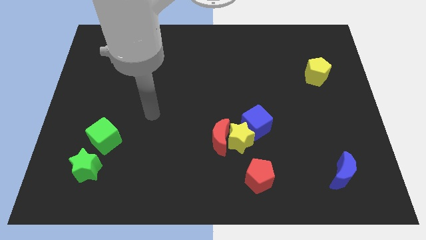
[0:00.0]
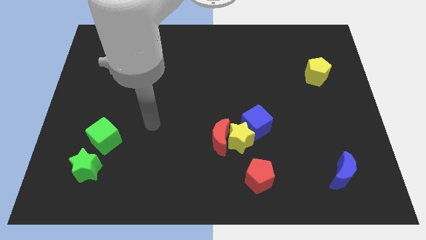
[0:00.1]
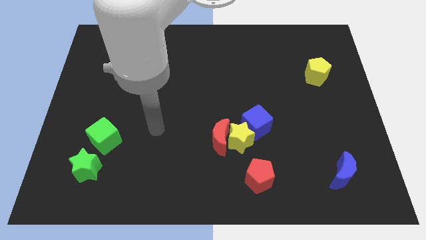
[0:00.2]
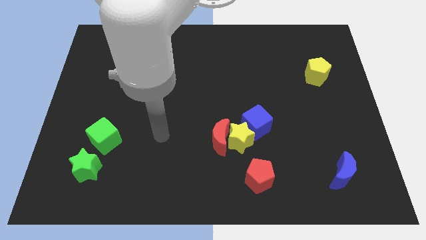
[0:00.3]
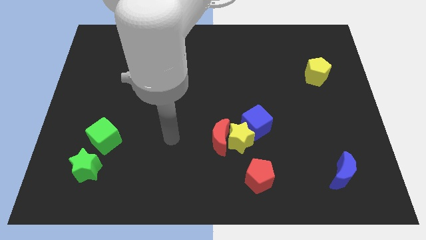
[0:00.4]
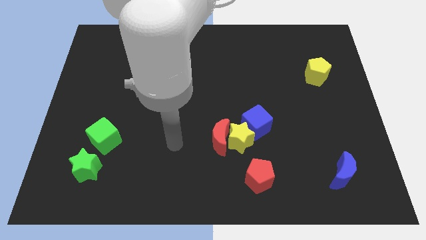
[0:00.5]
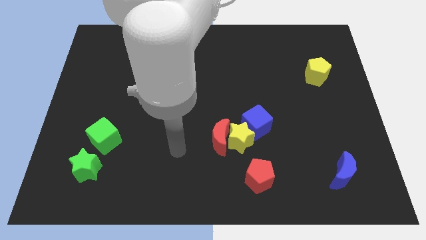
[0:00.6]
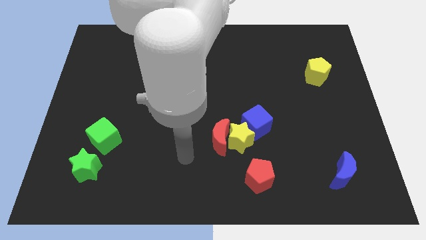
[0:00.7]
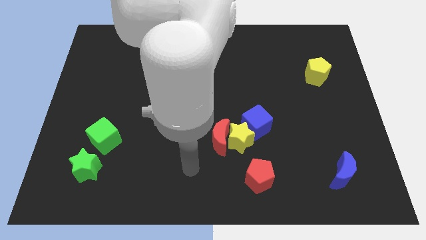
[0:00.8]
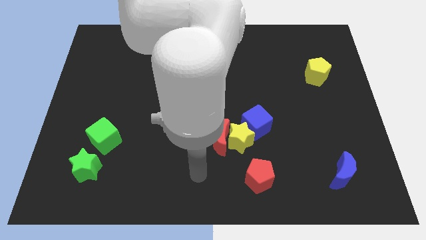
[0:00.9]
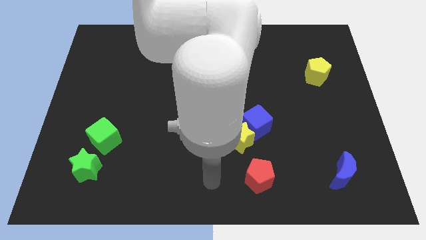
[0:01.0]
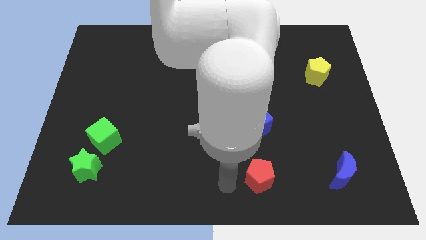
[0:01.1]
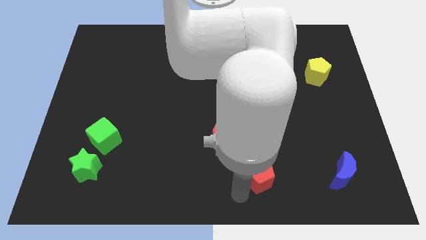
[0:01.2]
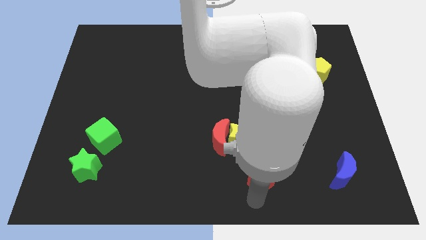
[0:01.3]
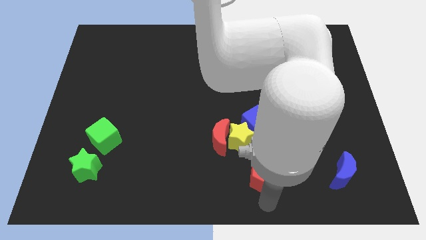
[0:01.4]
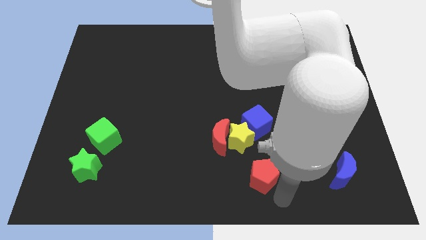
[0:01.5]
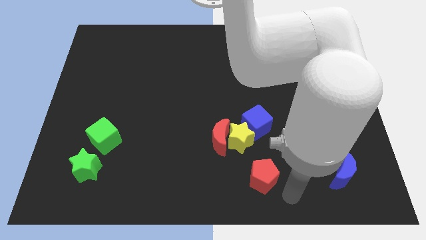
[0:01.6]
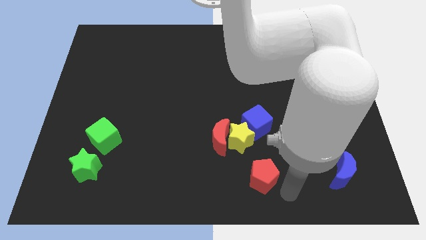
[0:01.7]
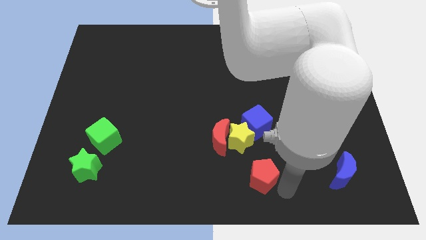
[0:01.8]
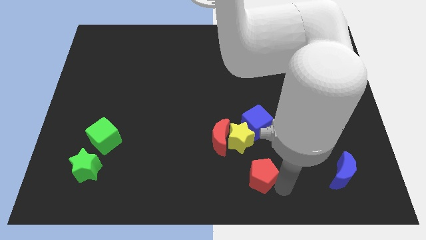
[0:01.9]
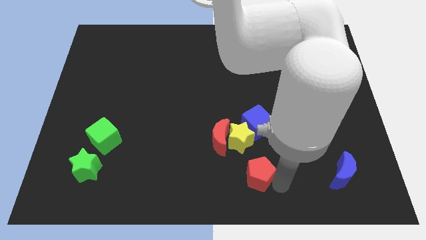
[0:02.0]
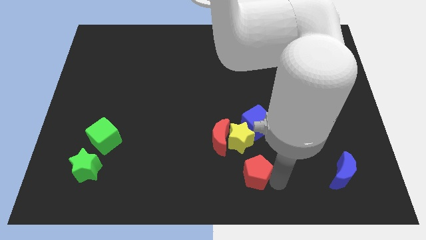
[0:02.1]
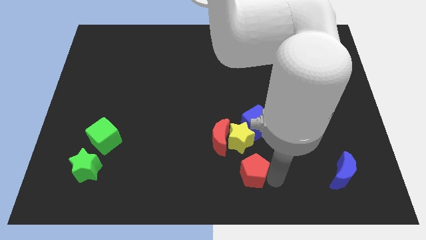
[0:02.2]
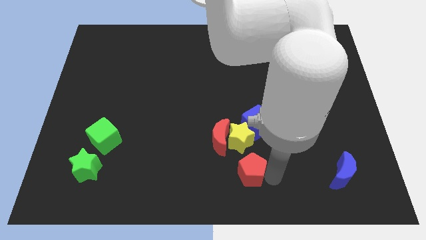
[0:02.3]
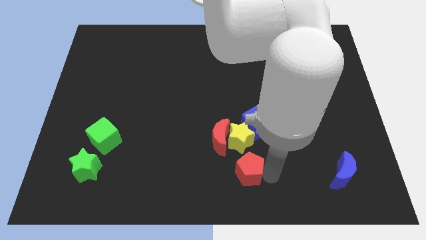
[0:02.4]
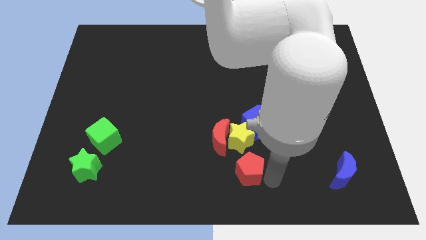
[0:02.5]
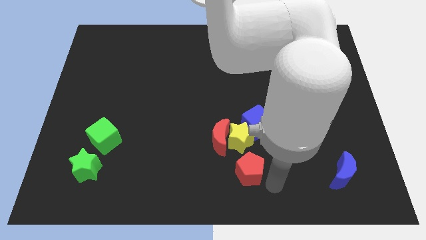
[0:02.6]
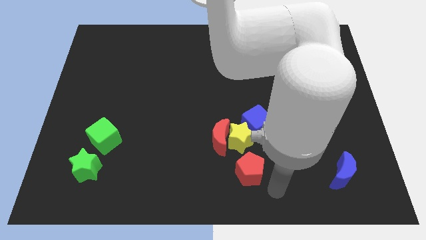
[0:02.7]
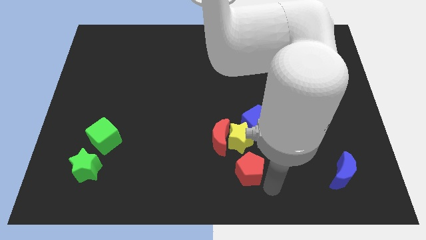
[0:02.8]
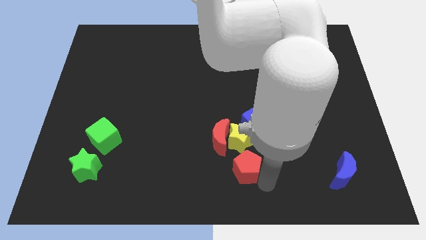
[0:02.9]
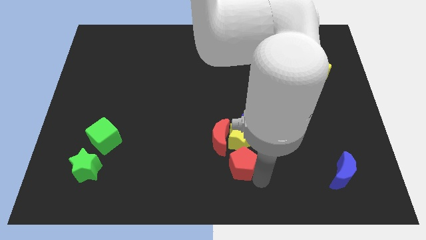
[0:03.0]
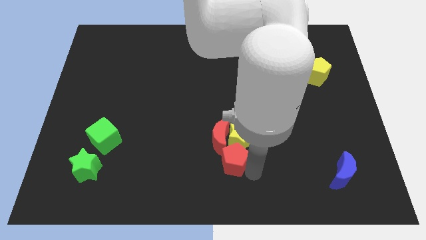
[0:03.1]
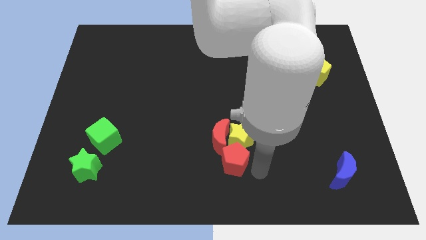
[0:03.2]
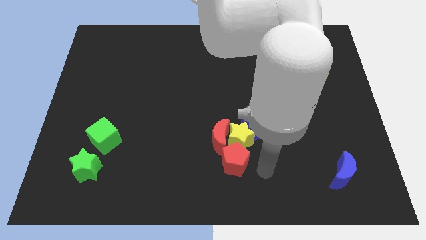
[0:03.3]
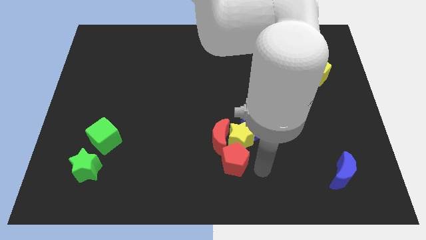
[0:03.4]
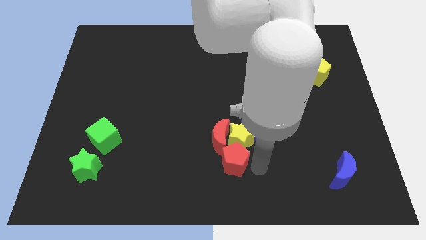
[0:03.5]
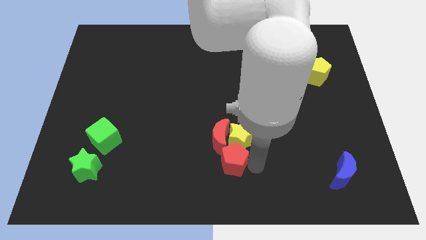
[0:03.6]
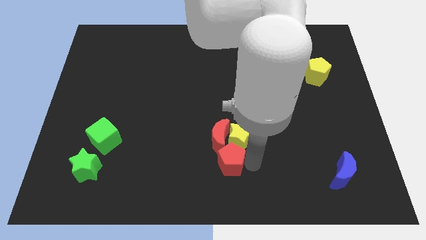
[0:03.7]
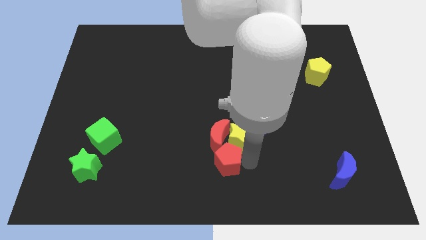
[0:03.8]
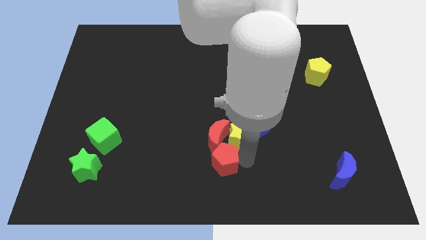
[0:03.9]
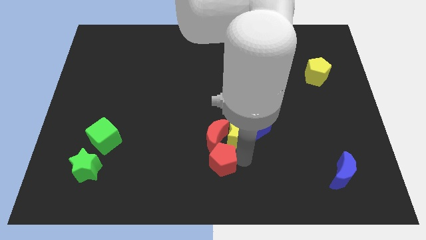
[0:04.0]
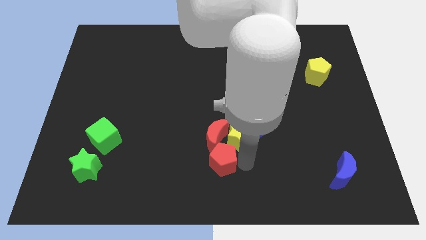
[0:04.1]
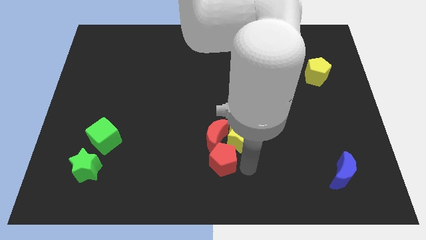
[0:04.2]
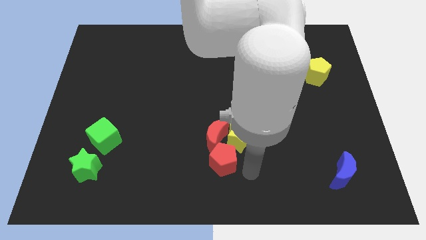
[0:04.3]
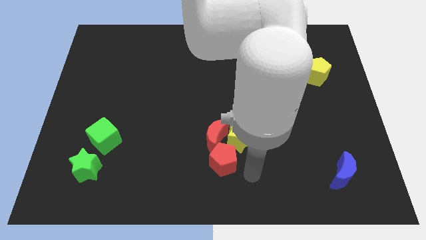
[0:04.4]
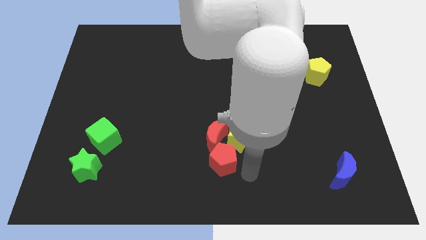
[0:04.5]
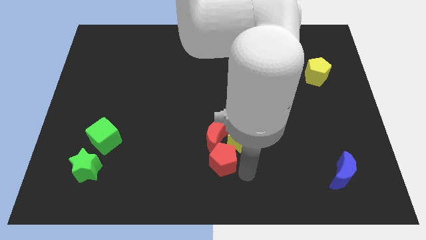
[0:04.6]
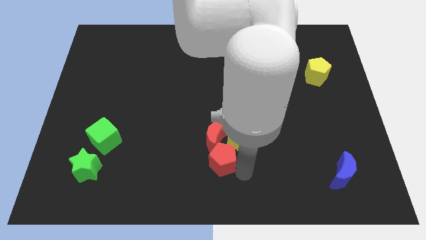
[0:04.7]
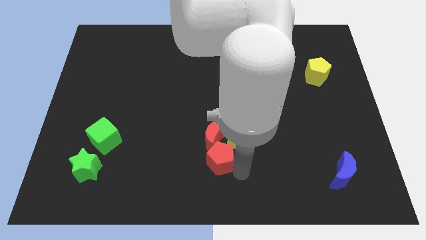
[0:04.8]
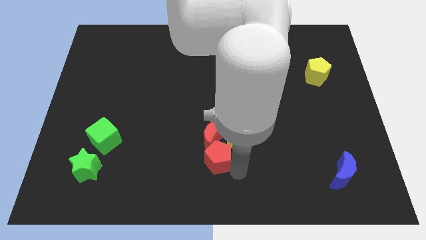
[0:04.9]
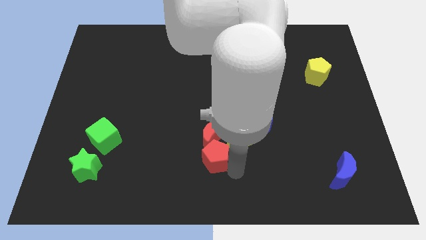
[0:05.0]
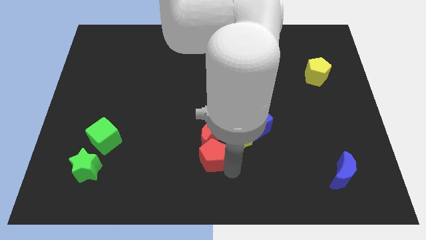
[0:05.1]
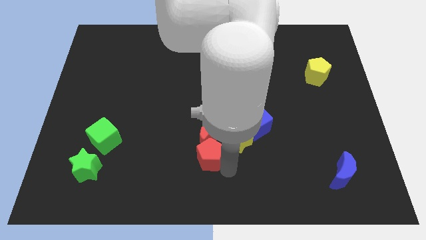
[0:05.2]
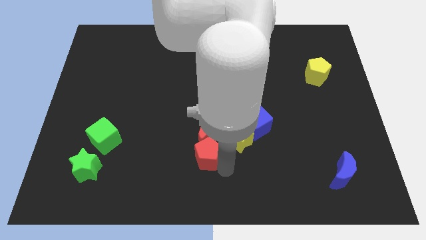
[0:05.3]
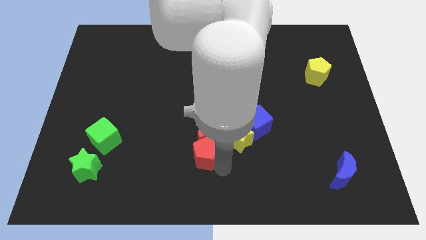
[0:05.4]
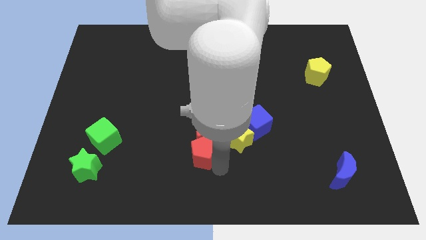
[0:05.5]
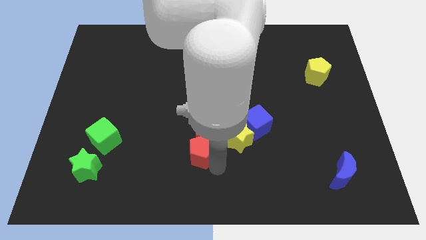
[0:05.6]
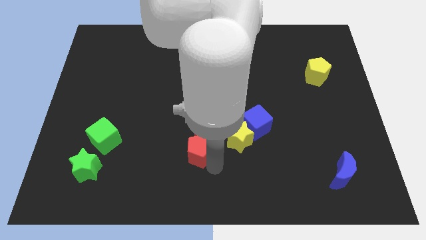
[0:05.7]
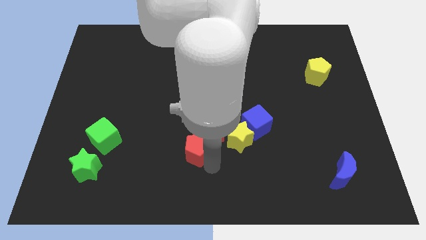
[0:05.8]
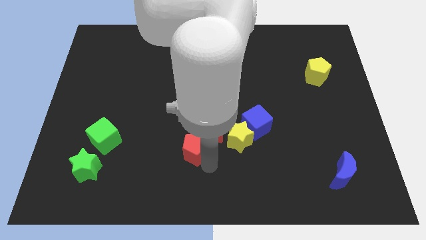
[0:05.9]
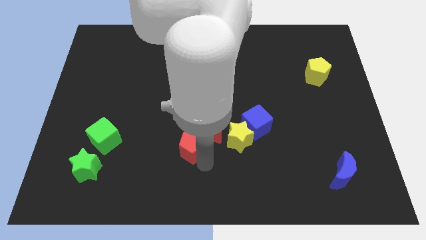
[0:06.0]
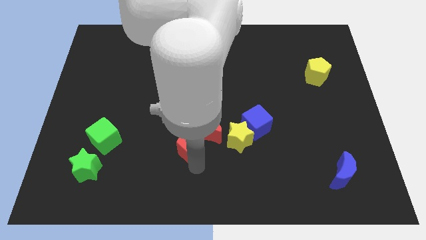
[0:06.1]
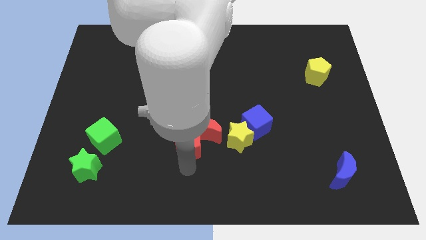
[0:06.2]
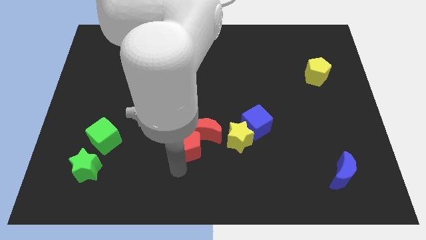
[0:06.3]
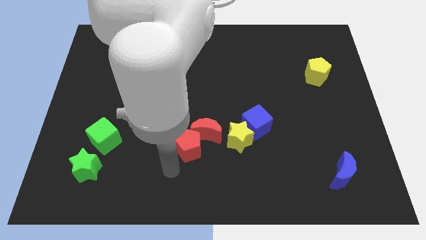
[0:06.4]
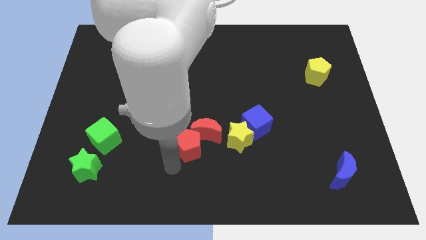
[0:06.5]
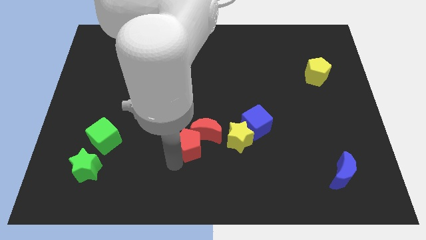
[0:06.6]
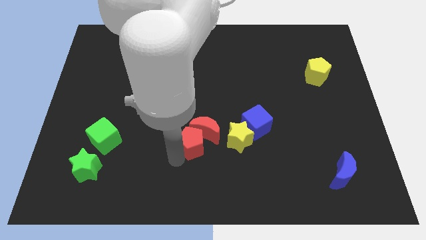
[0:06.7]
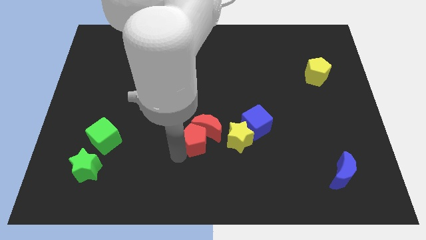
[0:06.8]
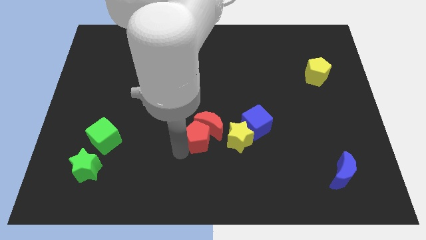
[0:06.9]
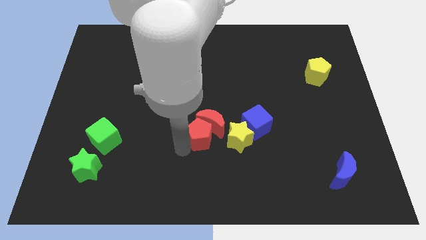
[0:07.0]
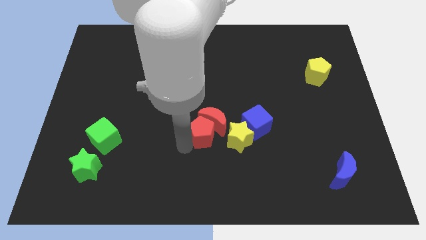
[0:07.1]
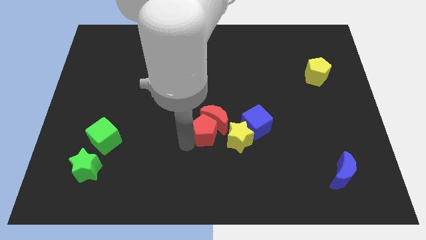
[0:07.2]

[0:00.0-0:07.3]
push the red pentagon to the top left of the yellow star

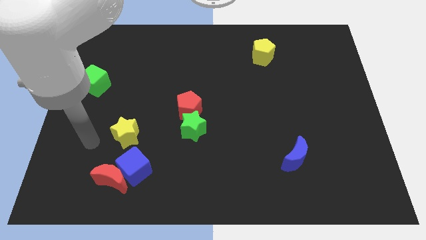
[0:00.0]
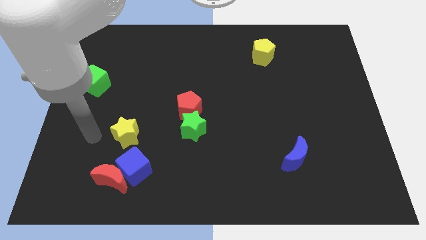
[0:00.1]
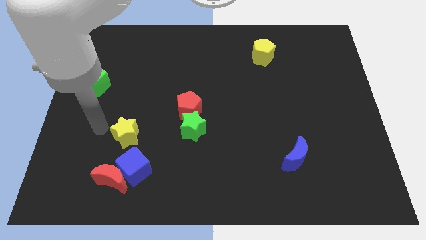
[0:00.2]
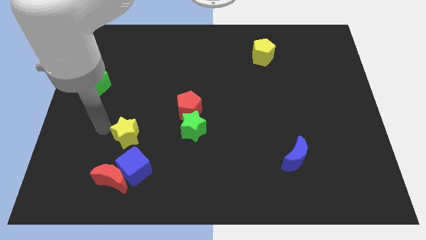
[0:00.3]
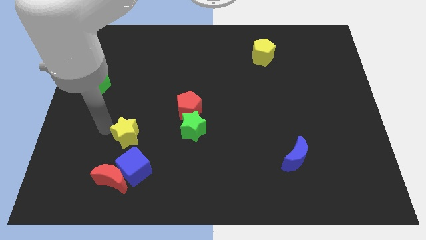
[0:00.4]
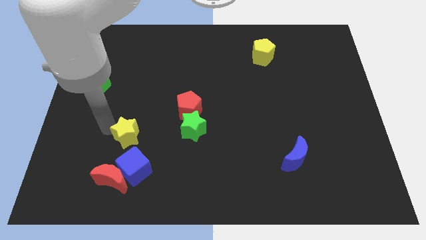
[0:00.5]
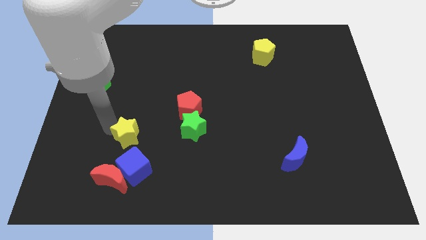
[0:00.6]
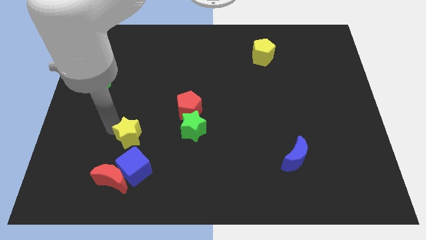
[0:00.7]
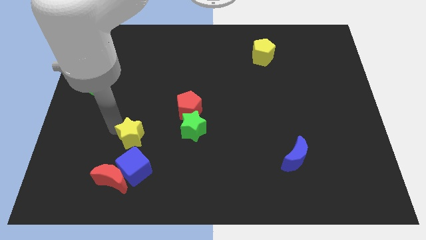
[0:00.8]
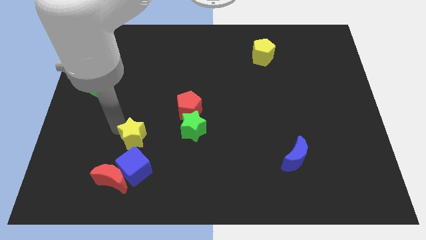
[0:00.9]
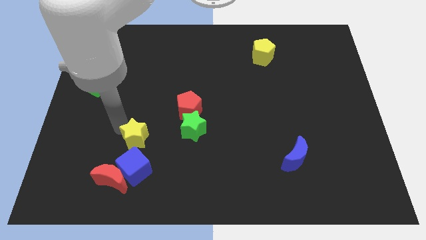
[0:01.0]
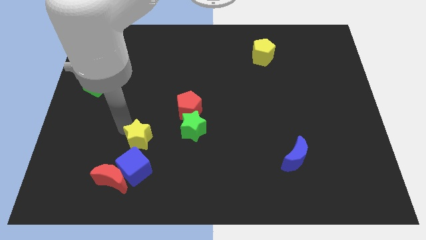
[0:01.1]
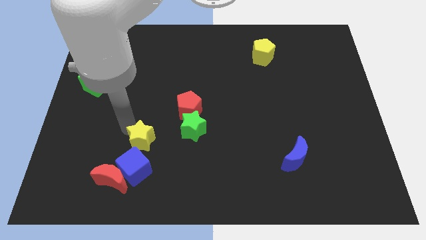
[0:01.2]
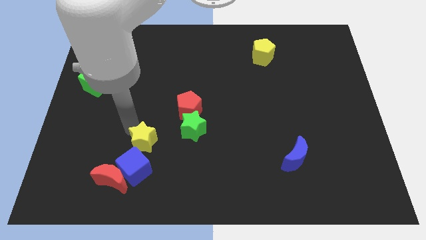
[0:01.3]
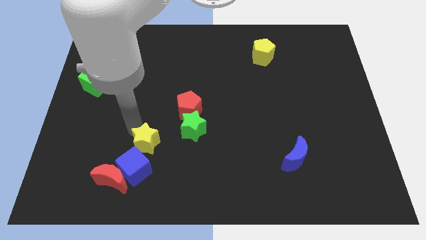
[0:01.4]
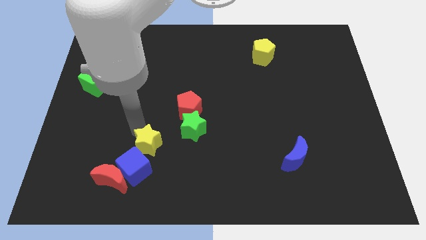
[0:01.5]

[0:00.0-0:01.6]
put the yellow star to the bottom left side of the green star
